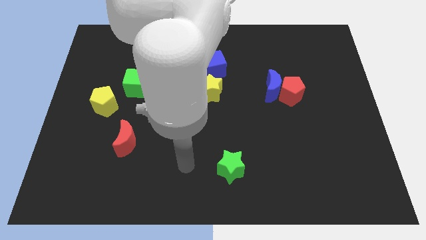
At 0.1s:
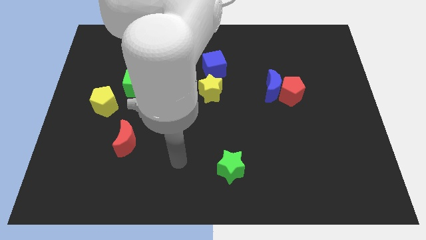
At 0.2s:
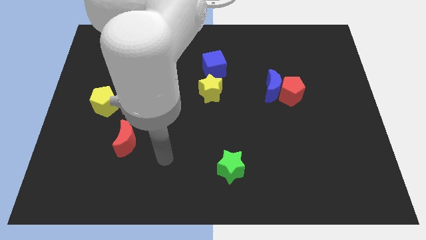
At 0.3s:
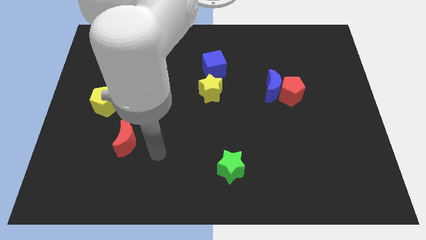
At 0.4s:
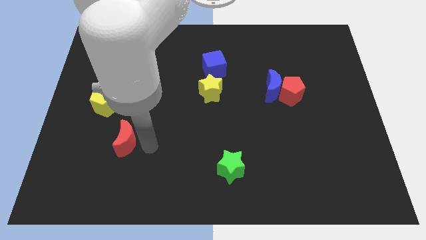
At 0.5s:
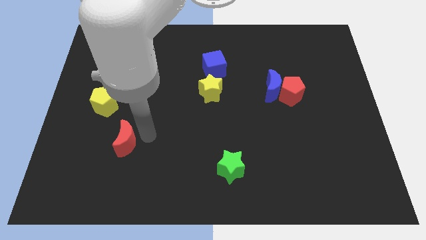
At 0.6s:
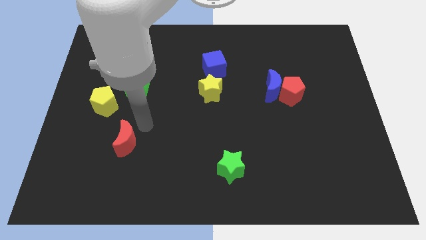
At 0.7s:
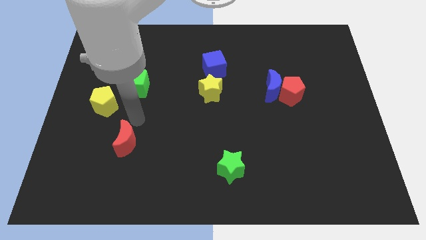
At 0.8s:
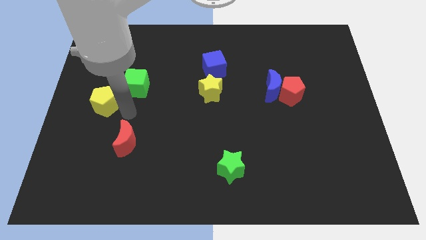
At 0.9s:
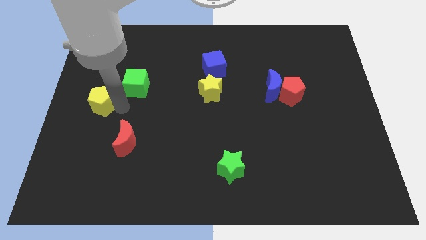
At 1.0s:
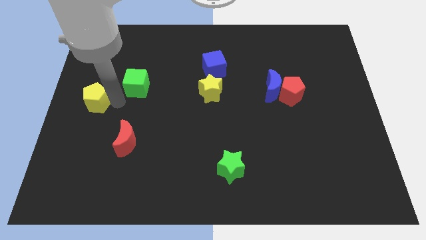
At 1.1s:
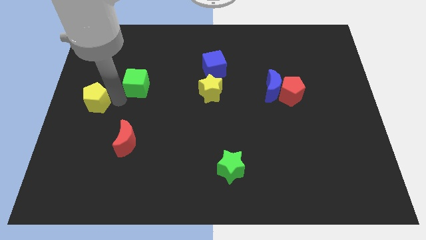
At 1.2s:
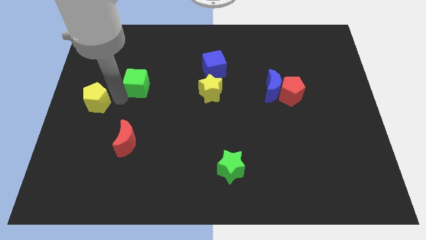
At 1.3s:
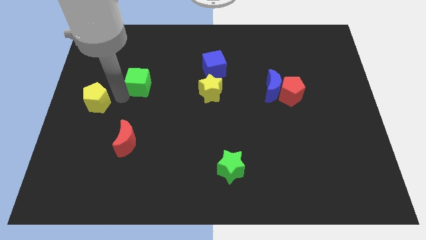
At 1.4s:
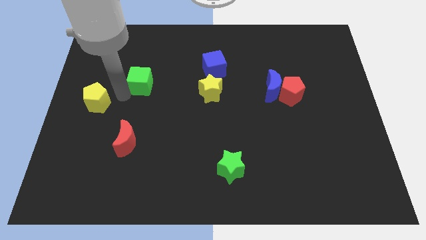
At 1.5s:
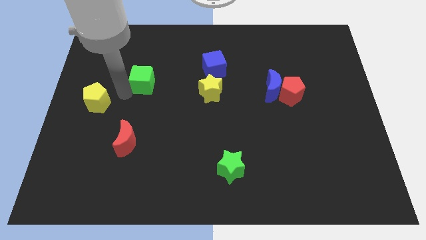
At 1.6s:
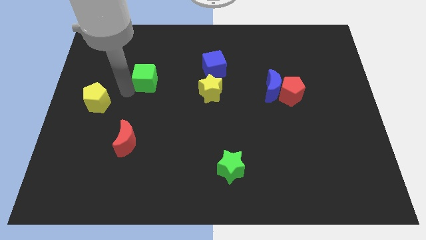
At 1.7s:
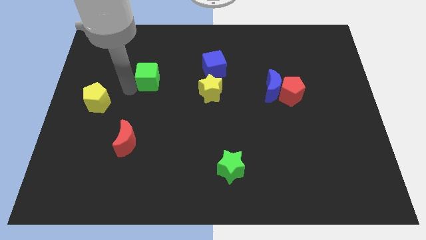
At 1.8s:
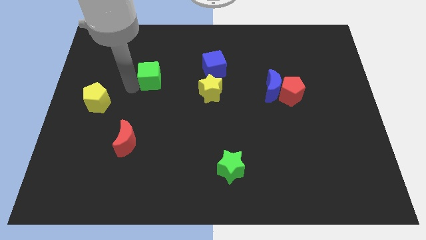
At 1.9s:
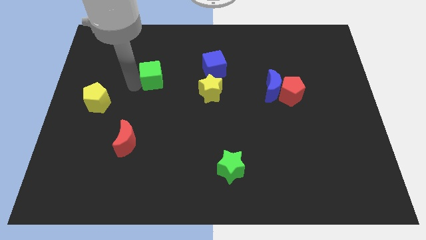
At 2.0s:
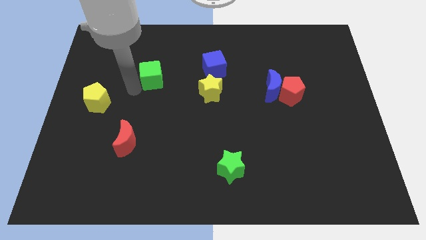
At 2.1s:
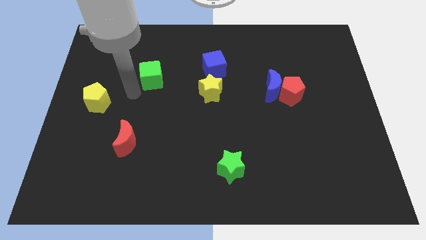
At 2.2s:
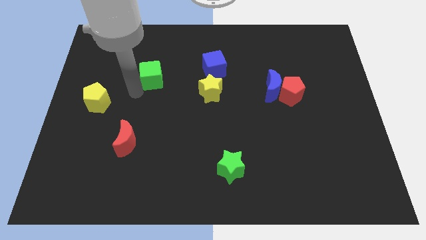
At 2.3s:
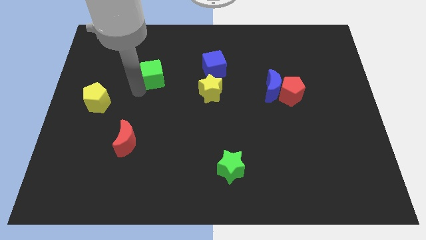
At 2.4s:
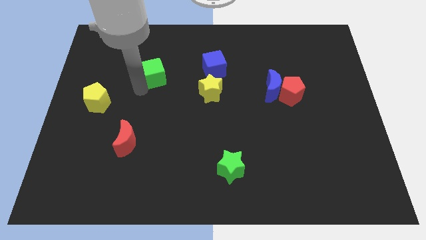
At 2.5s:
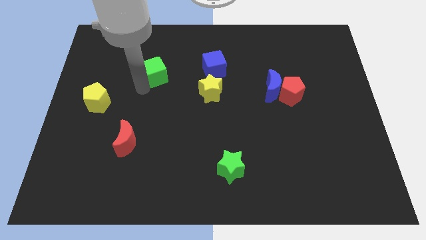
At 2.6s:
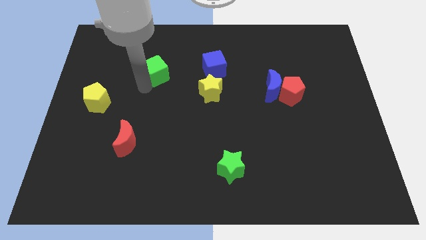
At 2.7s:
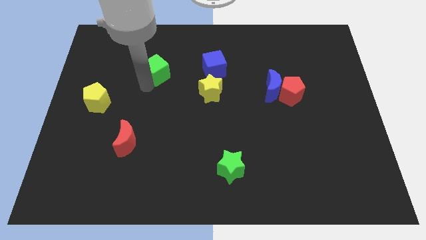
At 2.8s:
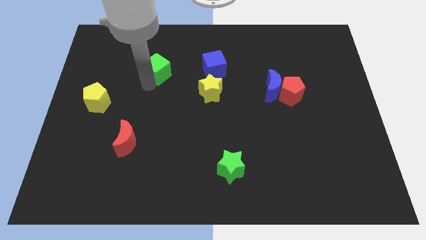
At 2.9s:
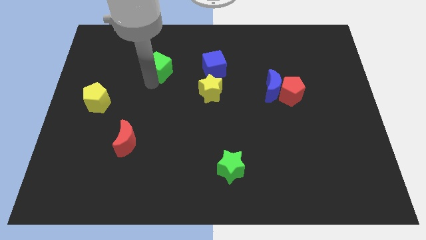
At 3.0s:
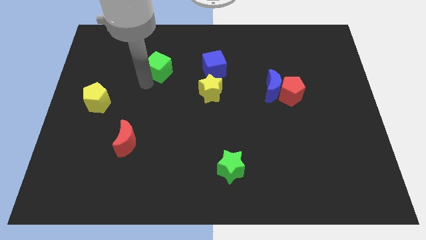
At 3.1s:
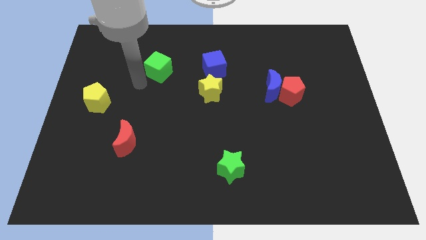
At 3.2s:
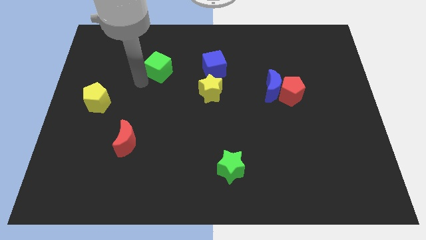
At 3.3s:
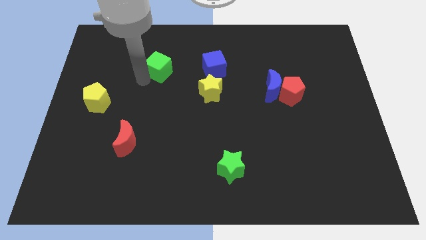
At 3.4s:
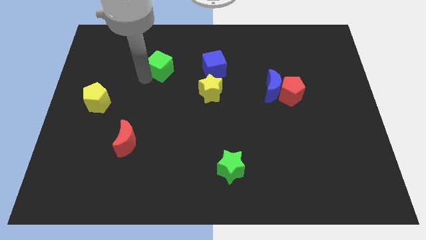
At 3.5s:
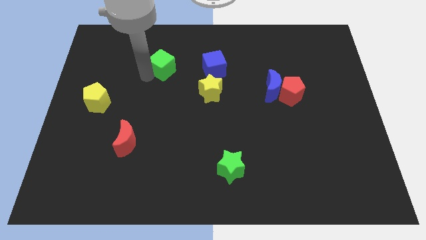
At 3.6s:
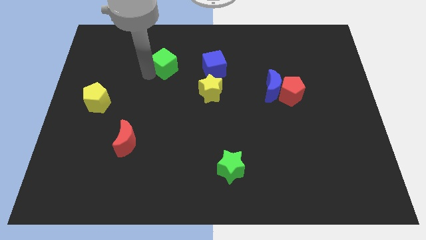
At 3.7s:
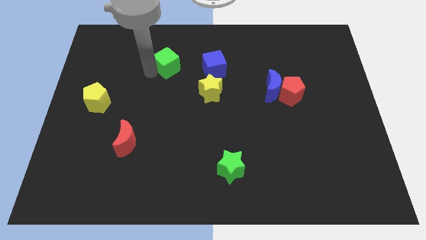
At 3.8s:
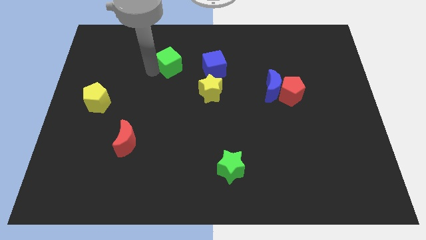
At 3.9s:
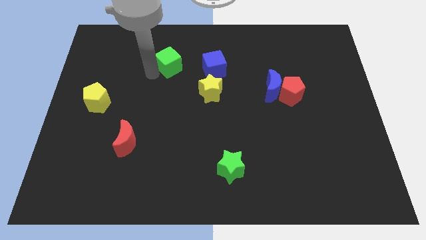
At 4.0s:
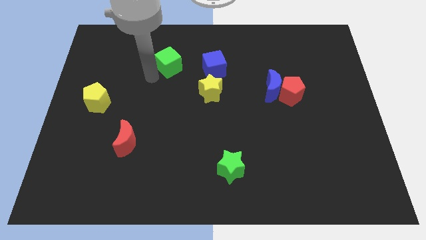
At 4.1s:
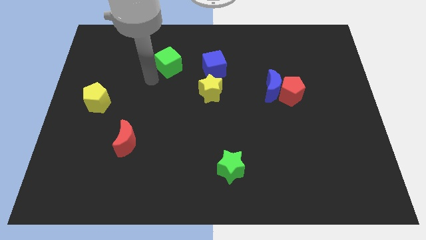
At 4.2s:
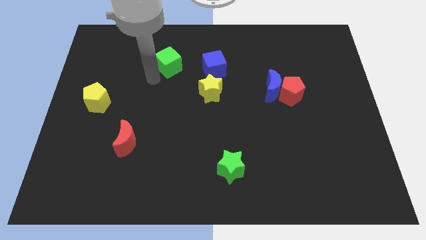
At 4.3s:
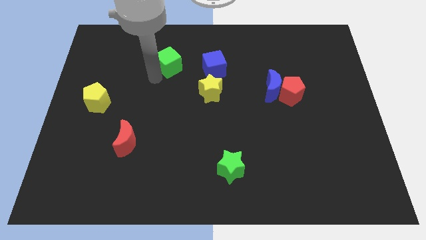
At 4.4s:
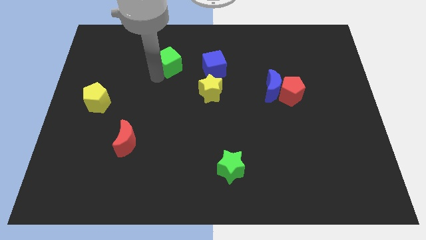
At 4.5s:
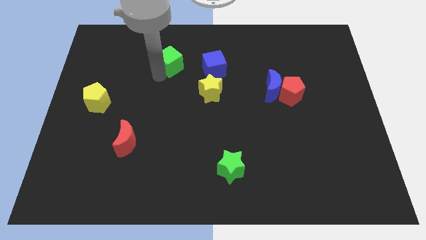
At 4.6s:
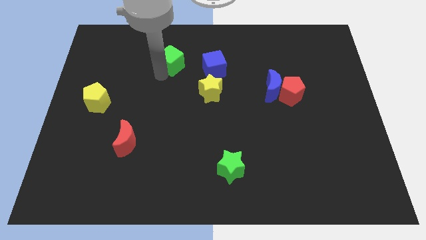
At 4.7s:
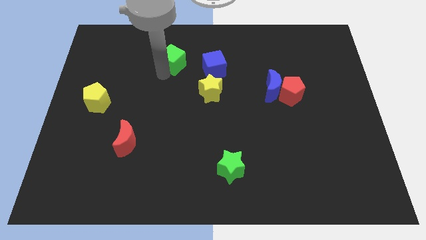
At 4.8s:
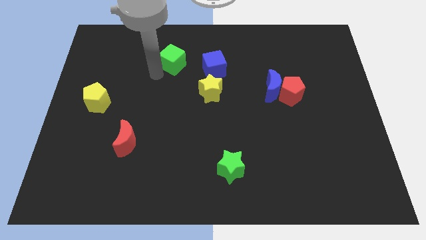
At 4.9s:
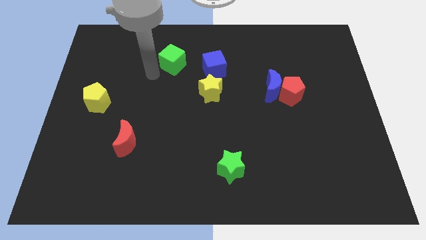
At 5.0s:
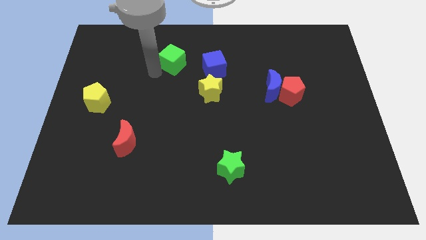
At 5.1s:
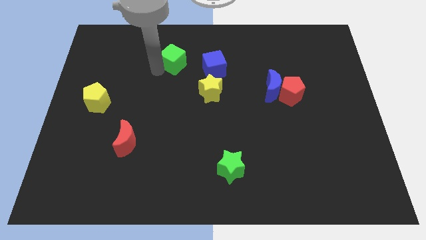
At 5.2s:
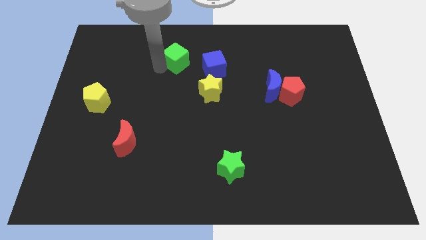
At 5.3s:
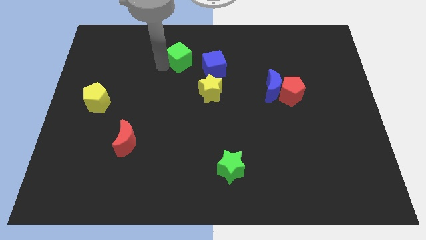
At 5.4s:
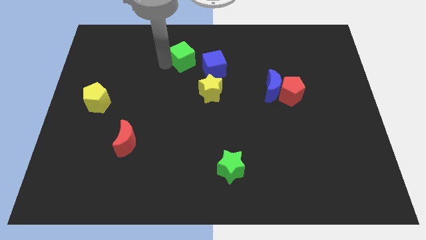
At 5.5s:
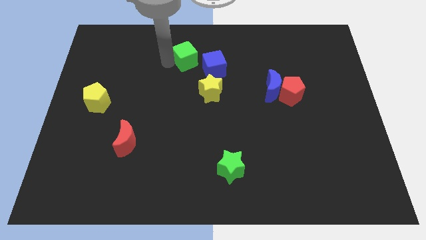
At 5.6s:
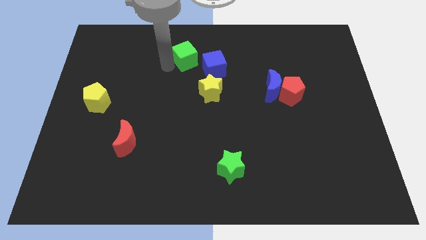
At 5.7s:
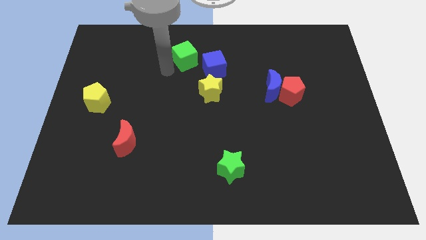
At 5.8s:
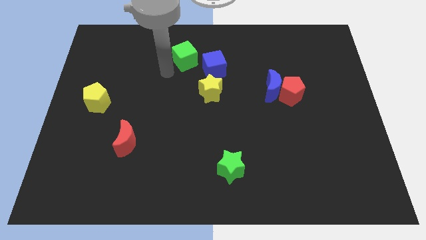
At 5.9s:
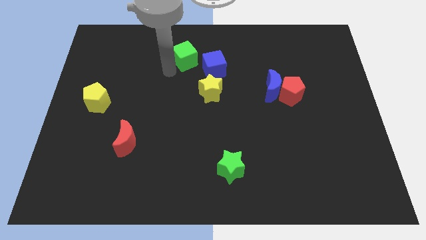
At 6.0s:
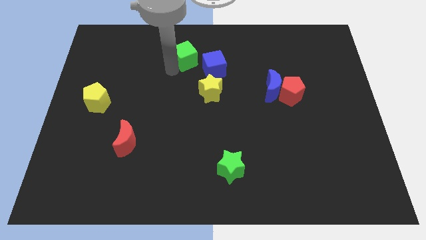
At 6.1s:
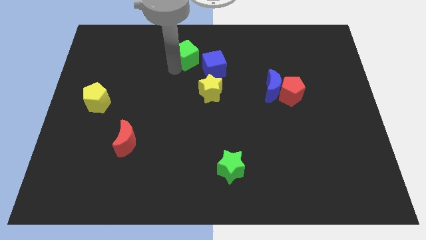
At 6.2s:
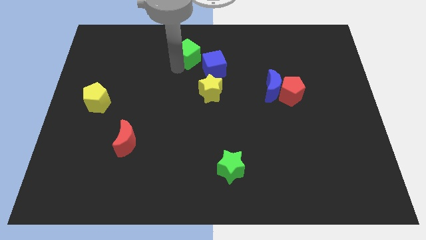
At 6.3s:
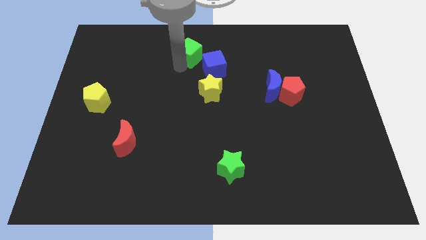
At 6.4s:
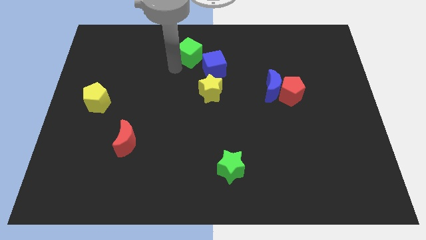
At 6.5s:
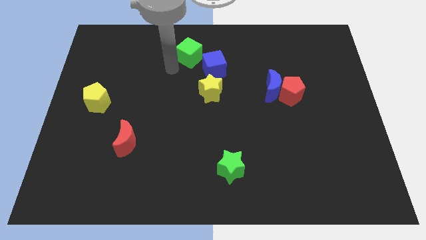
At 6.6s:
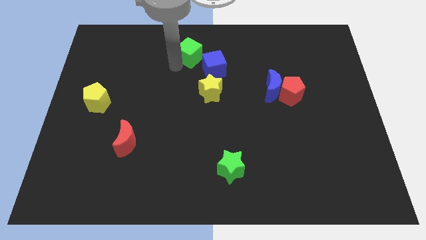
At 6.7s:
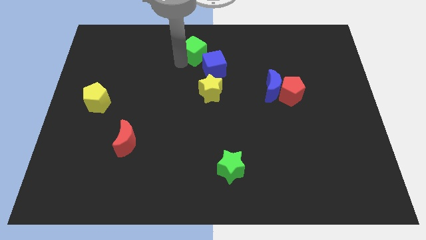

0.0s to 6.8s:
move the green cube to the towards your base

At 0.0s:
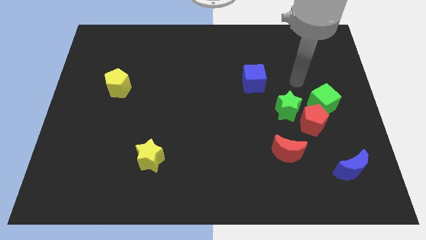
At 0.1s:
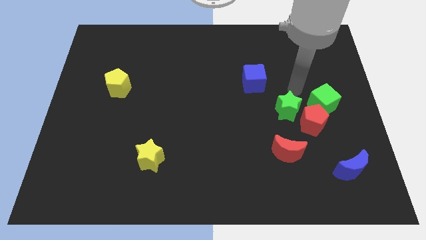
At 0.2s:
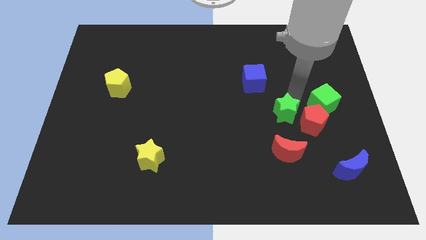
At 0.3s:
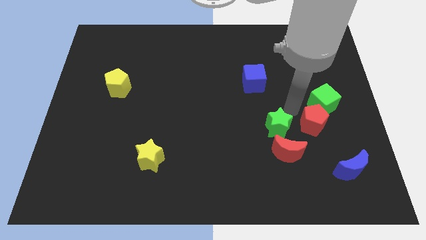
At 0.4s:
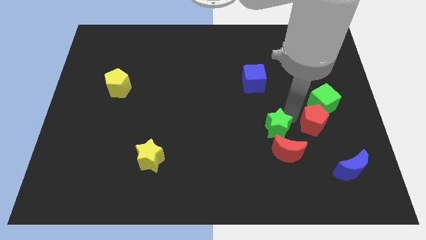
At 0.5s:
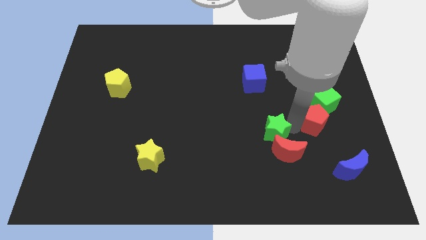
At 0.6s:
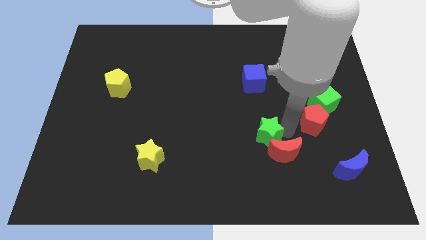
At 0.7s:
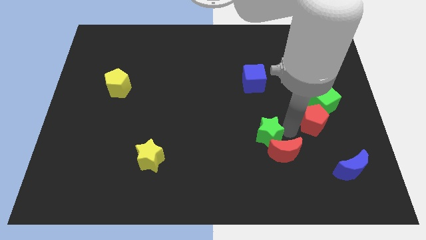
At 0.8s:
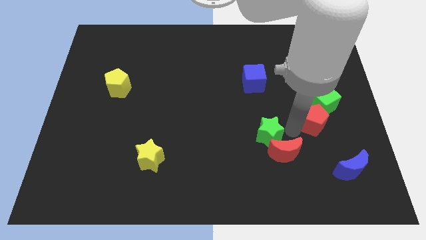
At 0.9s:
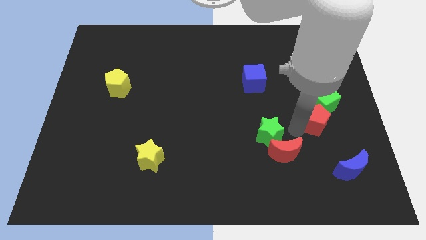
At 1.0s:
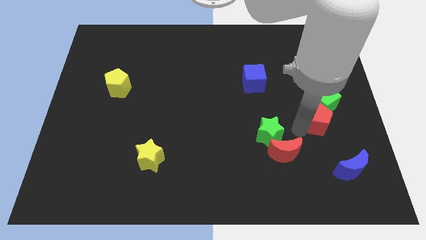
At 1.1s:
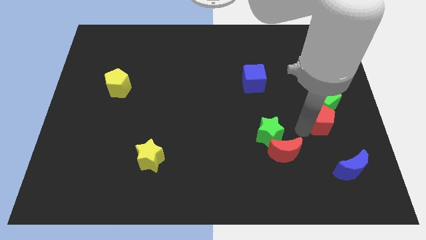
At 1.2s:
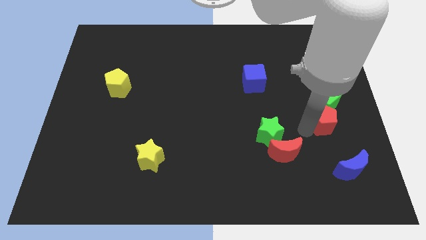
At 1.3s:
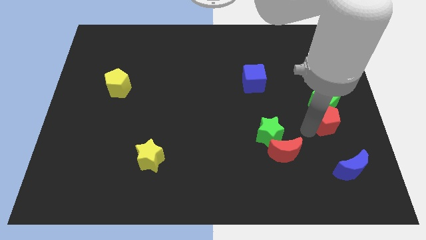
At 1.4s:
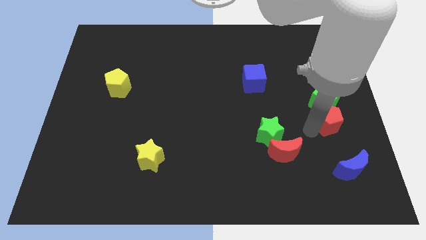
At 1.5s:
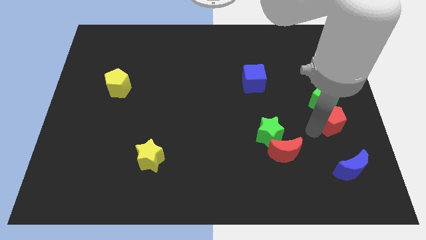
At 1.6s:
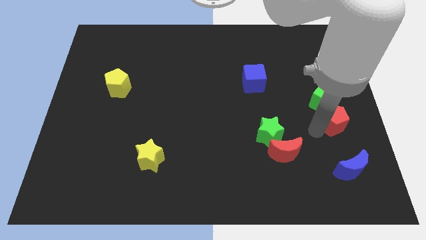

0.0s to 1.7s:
slide the red pentagon to the right side of the board
